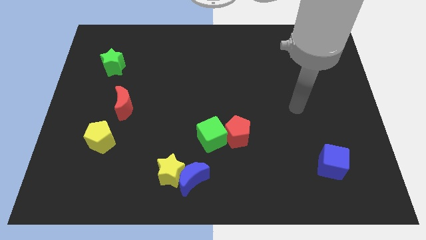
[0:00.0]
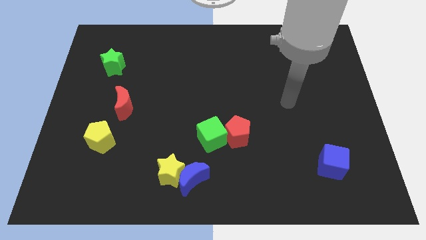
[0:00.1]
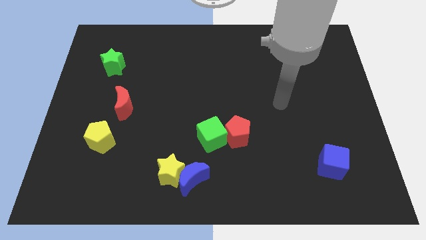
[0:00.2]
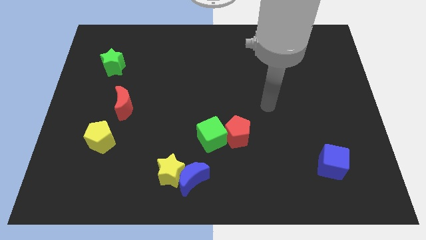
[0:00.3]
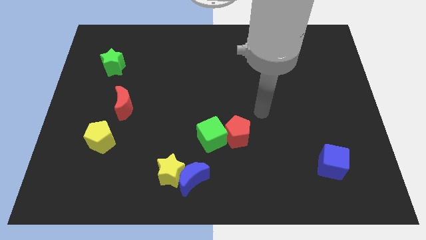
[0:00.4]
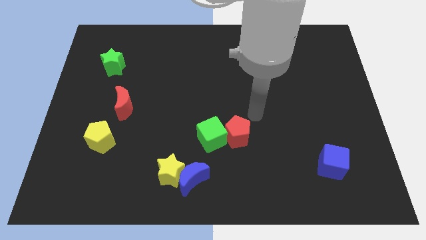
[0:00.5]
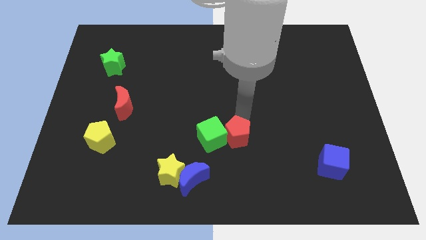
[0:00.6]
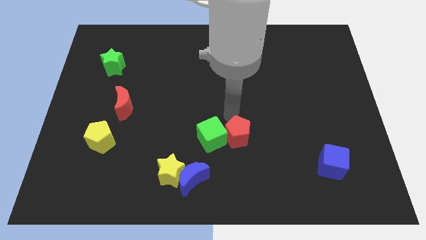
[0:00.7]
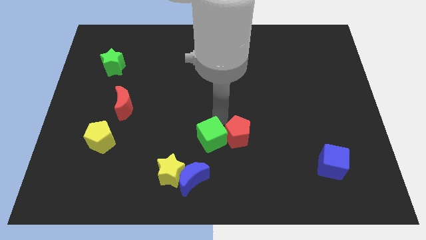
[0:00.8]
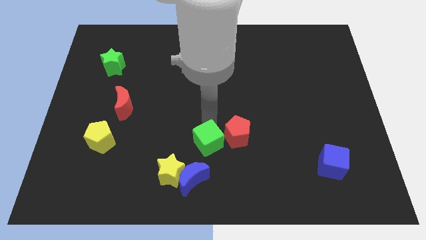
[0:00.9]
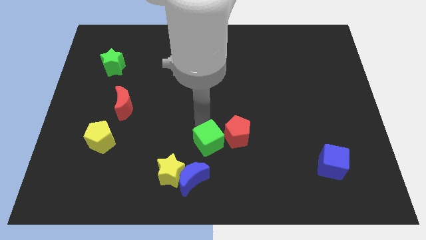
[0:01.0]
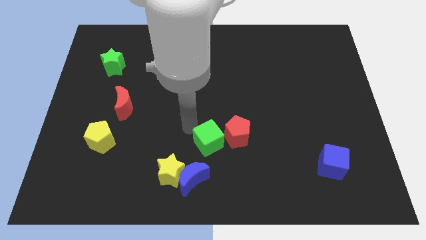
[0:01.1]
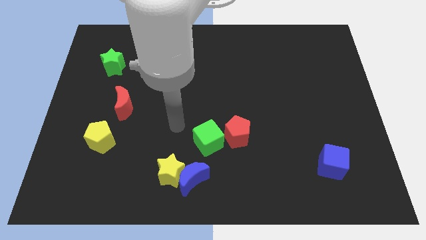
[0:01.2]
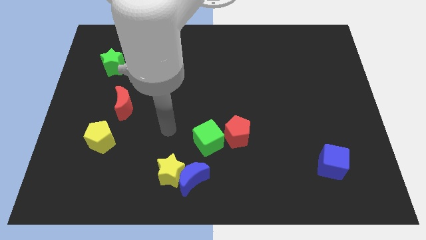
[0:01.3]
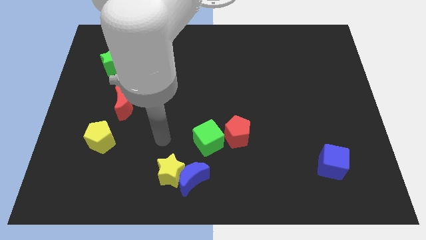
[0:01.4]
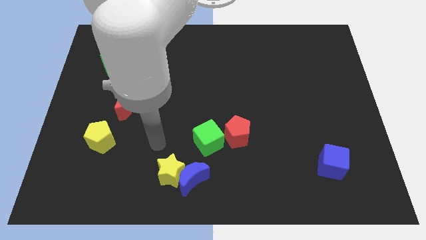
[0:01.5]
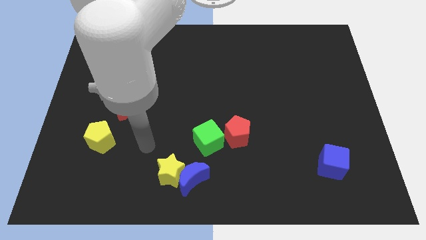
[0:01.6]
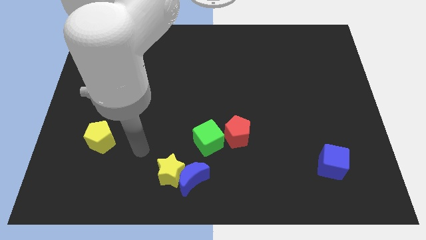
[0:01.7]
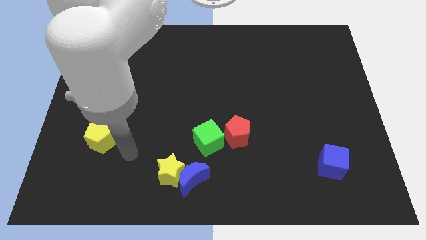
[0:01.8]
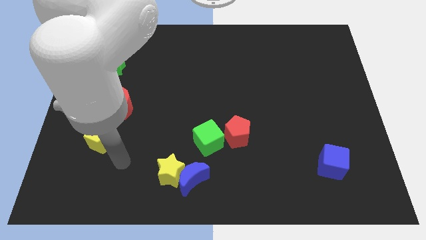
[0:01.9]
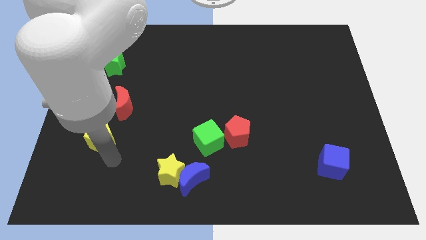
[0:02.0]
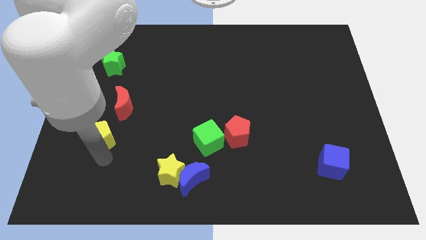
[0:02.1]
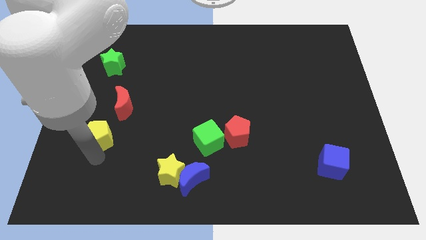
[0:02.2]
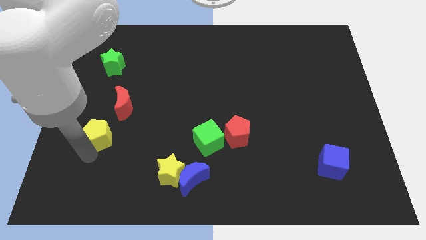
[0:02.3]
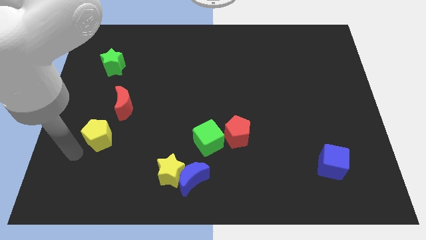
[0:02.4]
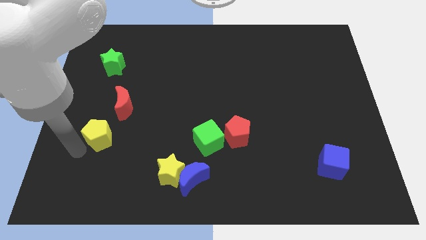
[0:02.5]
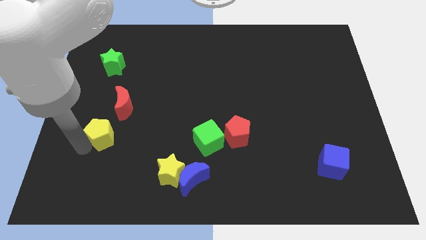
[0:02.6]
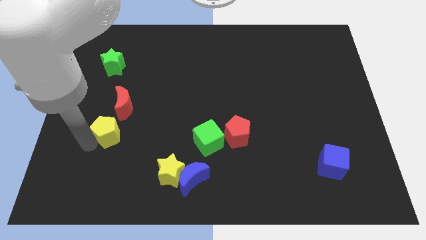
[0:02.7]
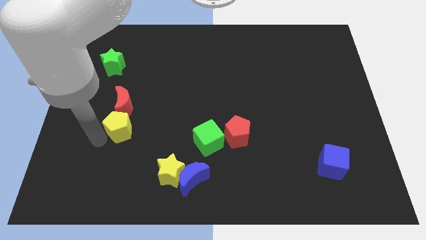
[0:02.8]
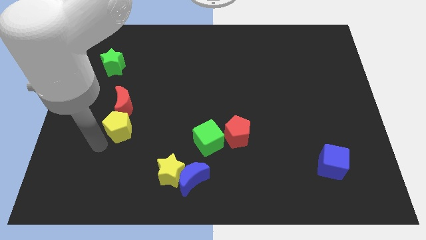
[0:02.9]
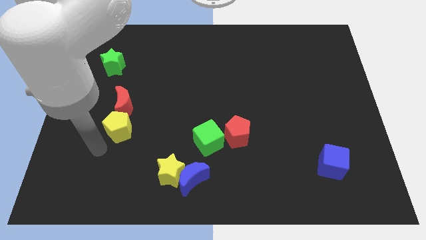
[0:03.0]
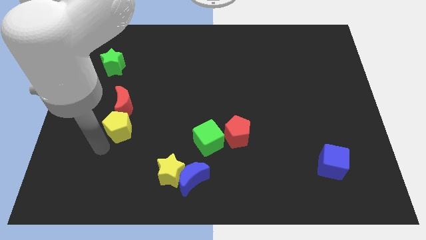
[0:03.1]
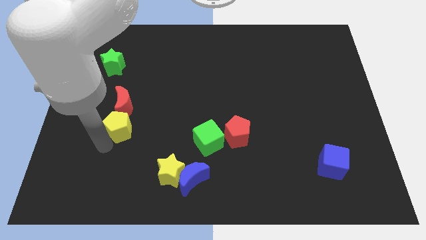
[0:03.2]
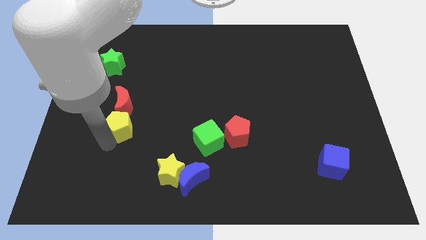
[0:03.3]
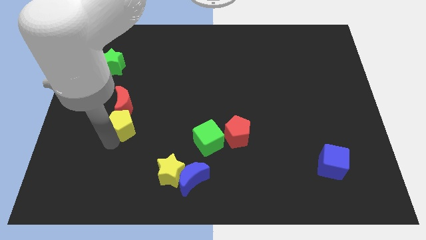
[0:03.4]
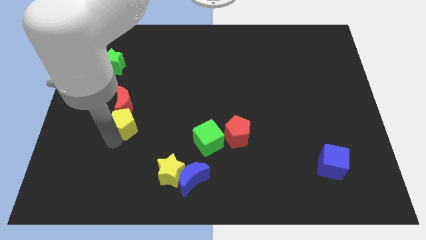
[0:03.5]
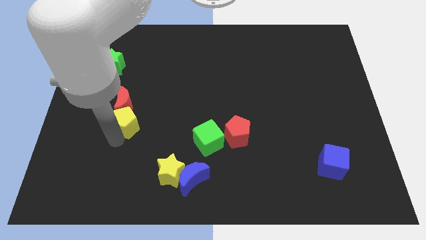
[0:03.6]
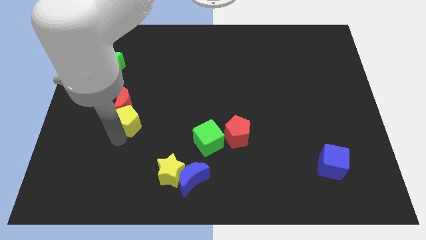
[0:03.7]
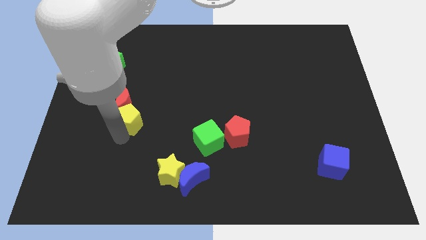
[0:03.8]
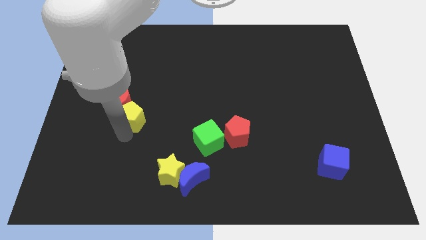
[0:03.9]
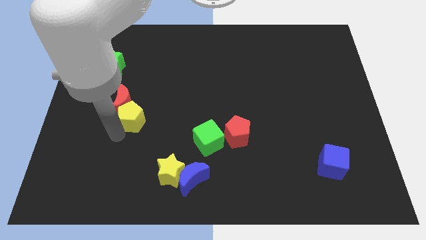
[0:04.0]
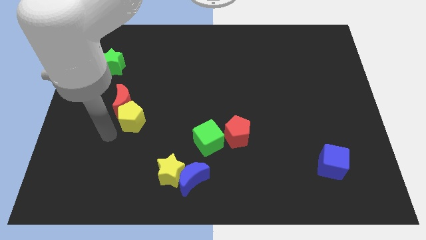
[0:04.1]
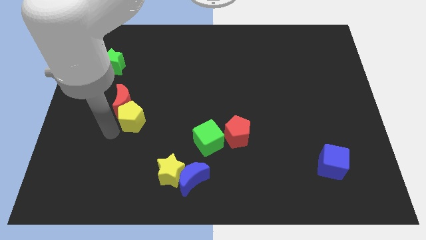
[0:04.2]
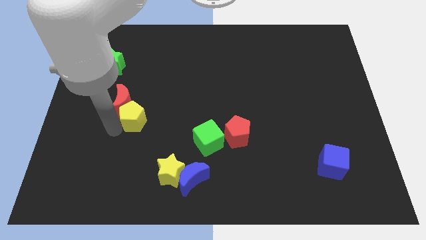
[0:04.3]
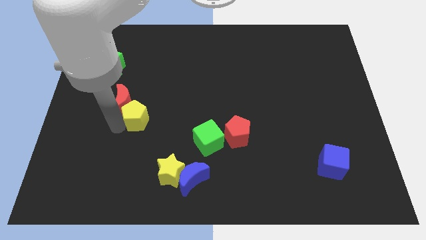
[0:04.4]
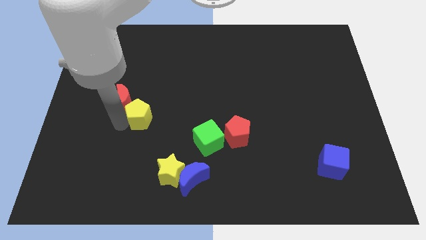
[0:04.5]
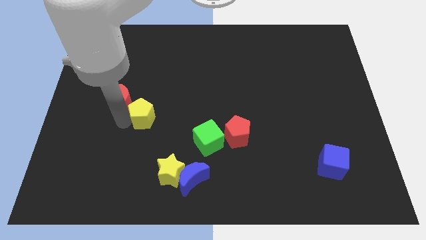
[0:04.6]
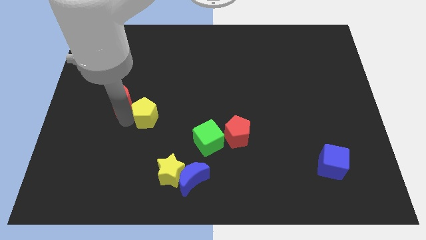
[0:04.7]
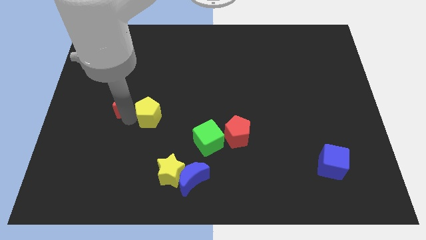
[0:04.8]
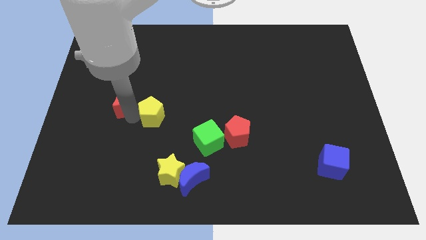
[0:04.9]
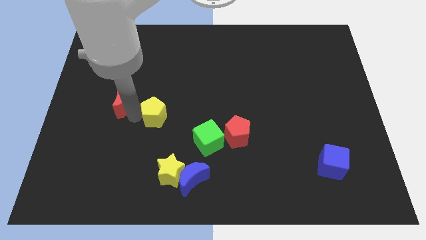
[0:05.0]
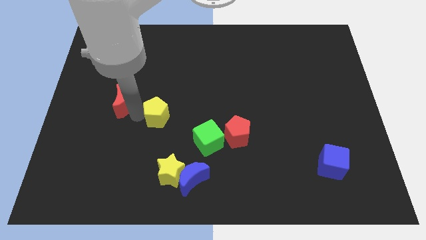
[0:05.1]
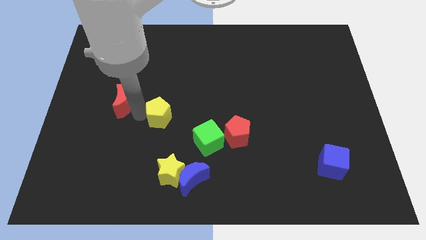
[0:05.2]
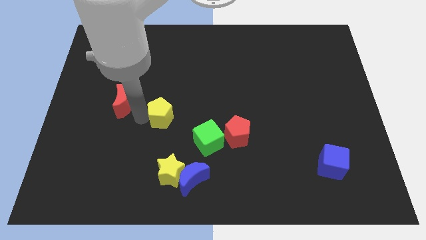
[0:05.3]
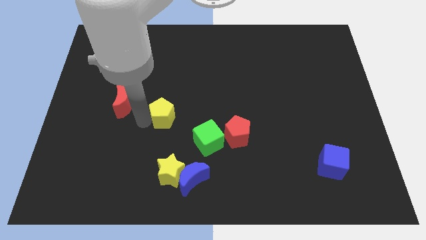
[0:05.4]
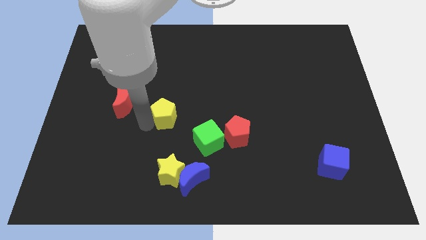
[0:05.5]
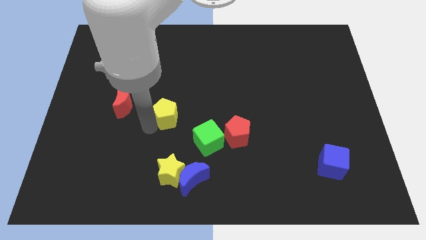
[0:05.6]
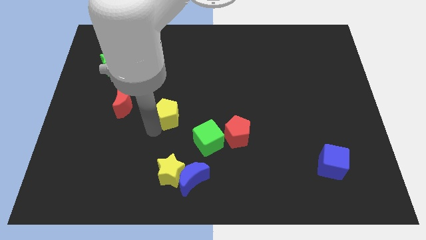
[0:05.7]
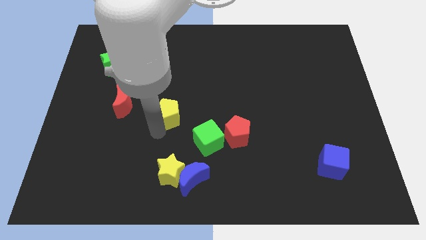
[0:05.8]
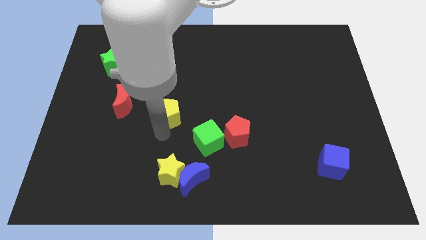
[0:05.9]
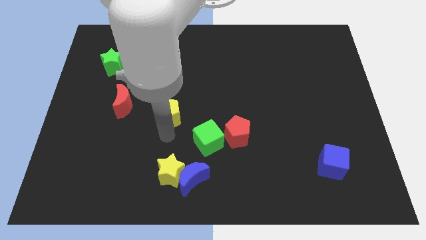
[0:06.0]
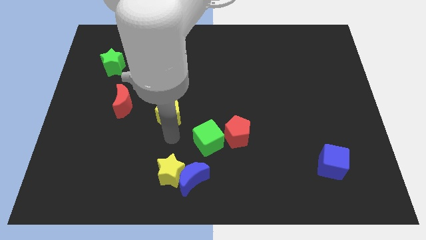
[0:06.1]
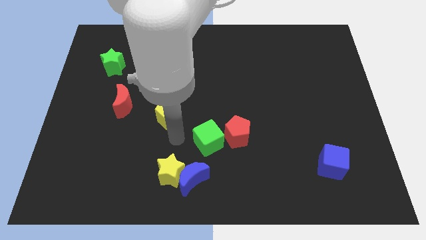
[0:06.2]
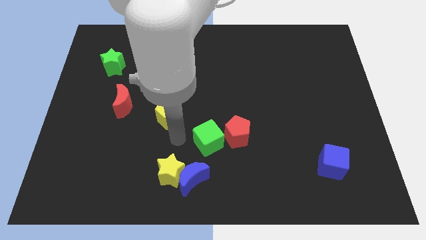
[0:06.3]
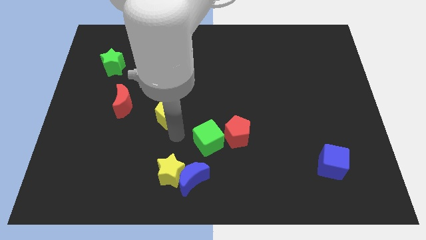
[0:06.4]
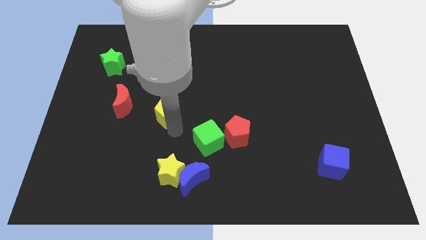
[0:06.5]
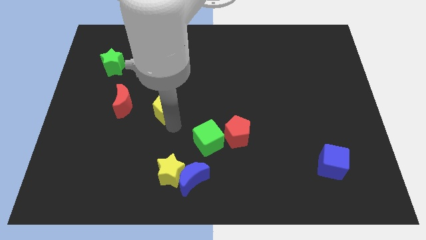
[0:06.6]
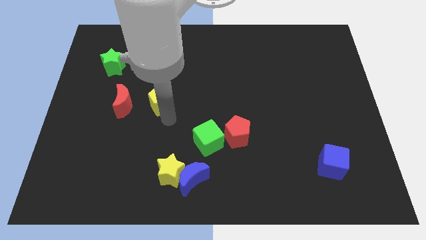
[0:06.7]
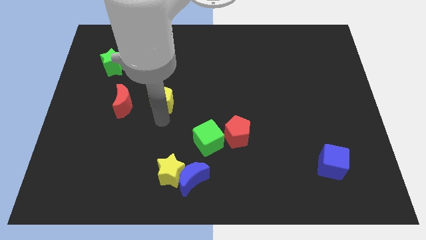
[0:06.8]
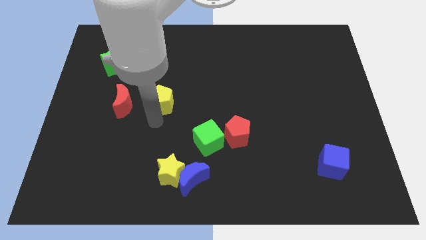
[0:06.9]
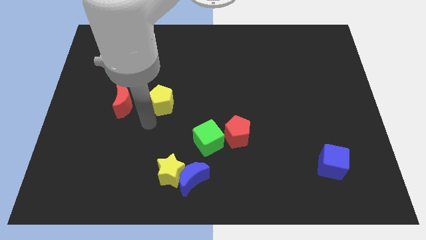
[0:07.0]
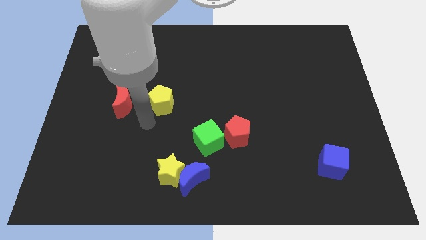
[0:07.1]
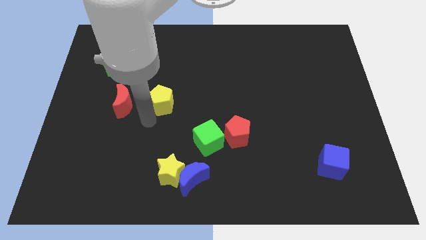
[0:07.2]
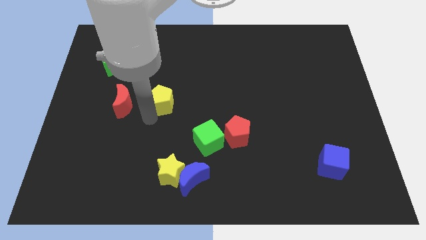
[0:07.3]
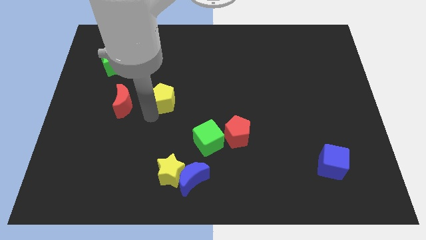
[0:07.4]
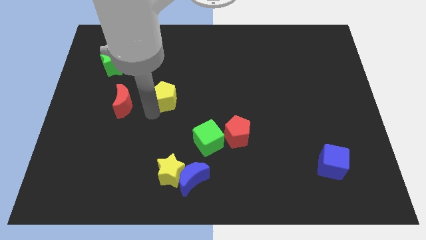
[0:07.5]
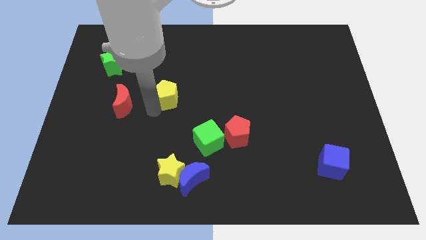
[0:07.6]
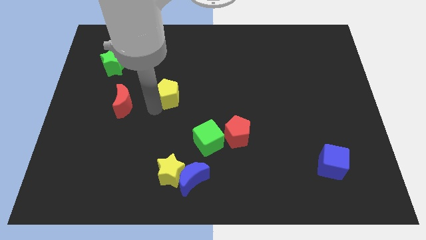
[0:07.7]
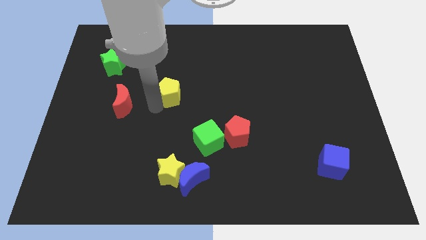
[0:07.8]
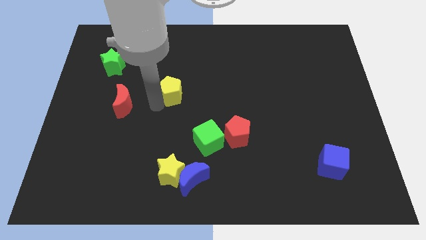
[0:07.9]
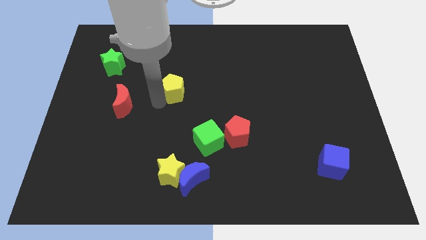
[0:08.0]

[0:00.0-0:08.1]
push the yellow pentagon up and to the right diagonally

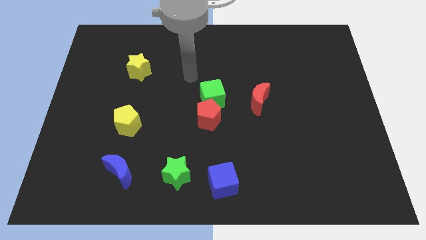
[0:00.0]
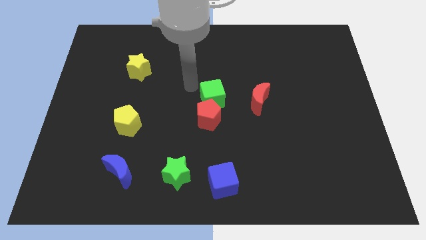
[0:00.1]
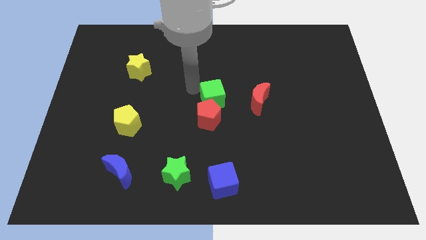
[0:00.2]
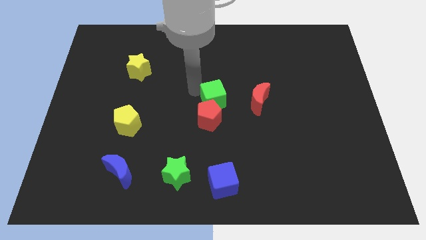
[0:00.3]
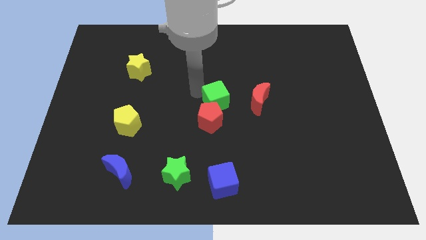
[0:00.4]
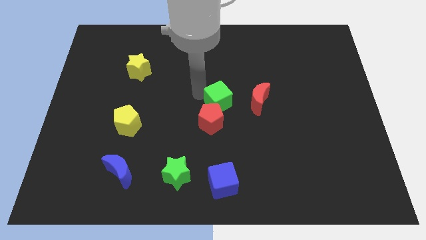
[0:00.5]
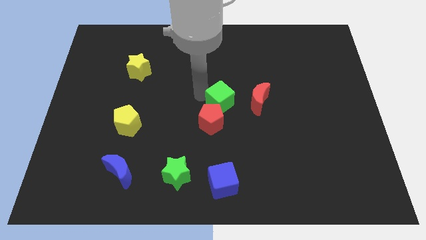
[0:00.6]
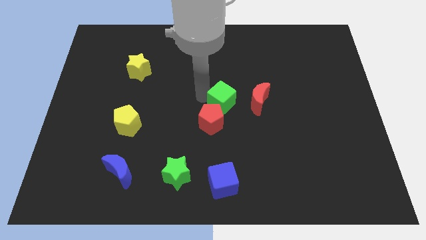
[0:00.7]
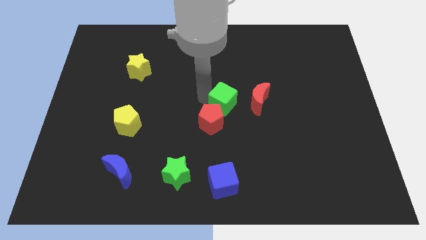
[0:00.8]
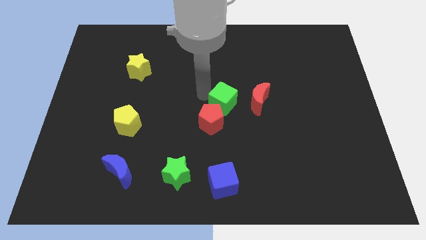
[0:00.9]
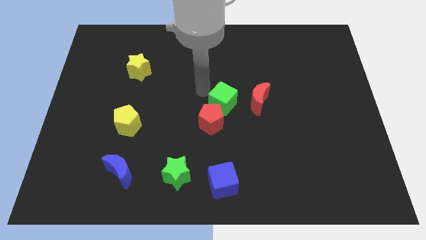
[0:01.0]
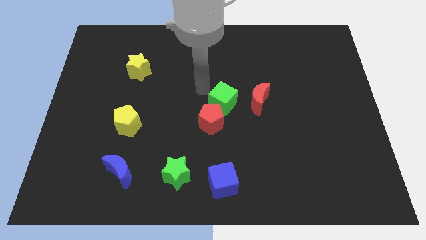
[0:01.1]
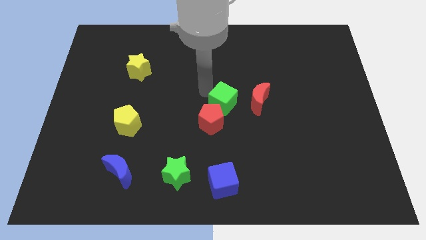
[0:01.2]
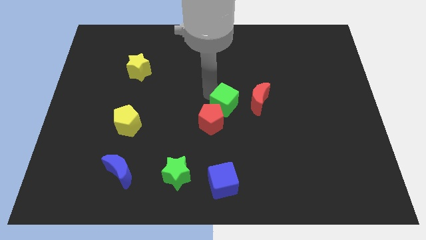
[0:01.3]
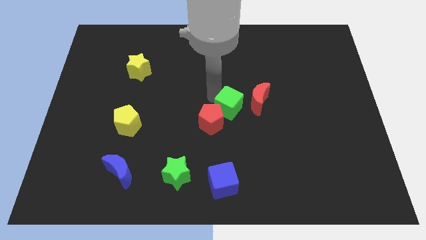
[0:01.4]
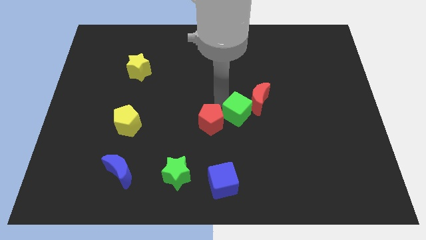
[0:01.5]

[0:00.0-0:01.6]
slide the green cube somewhat diagonally down and to the right
